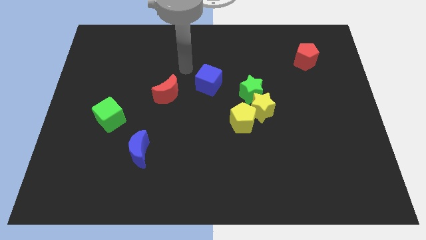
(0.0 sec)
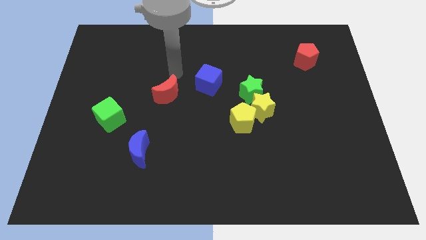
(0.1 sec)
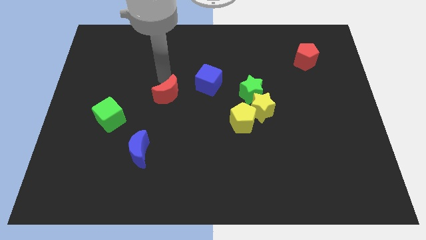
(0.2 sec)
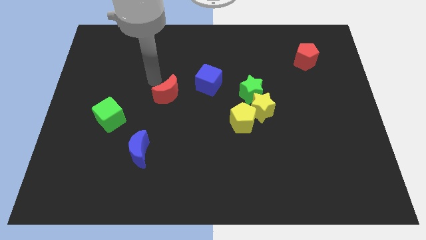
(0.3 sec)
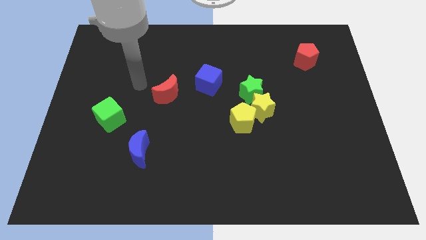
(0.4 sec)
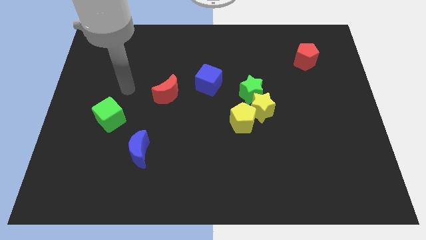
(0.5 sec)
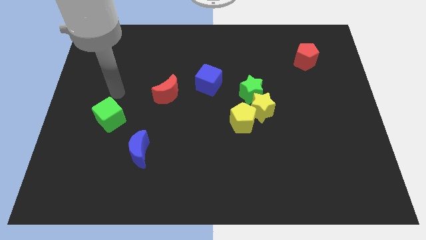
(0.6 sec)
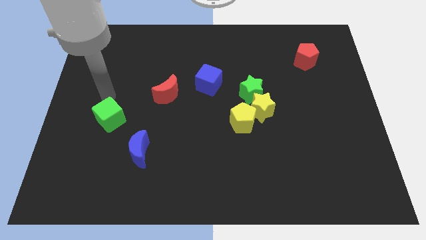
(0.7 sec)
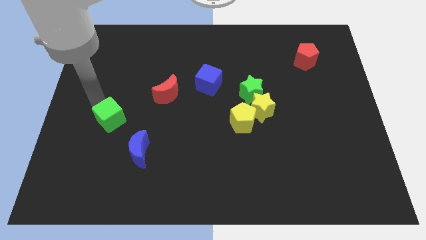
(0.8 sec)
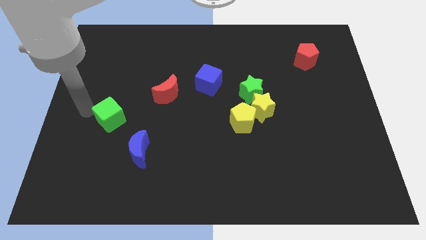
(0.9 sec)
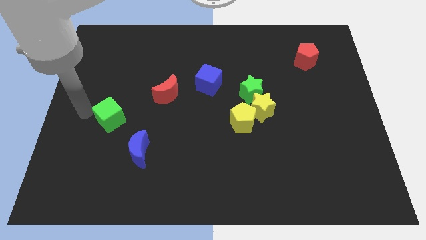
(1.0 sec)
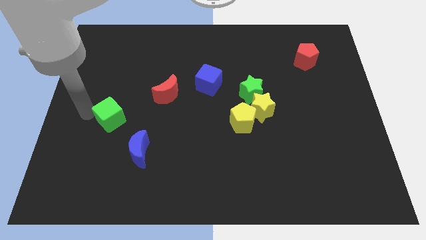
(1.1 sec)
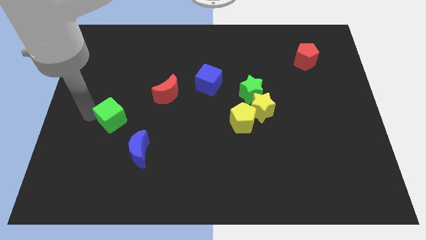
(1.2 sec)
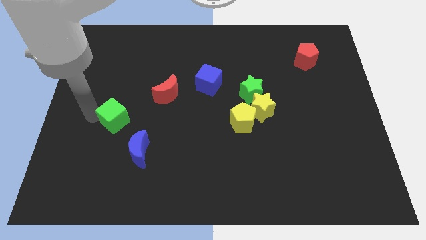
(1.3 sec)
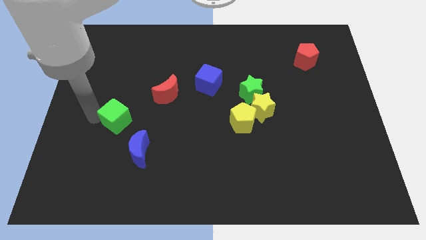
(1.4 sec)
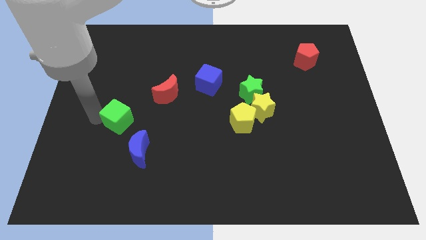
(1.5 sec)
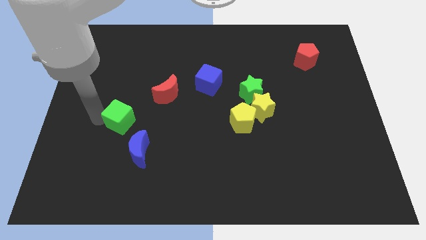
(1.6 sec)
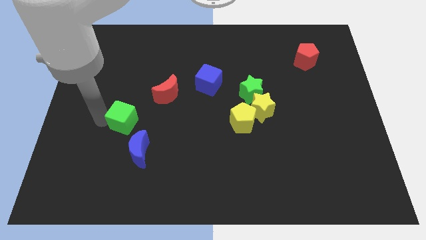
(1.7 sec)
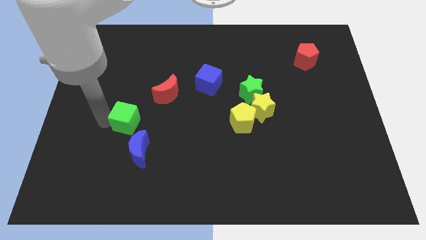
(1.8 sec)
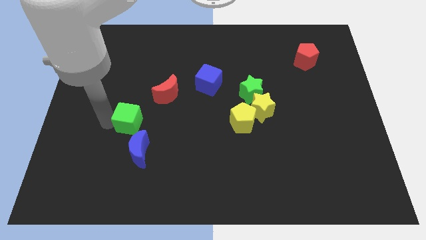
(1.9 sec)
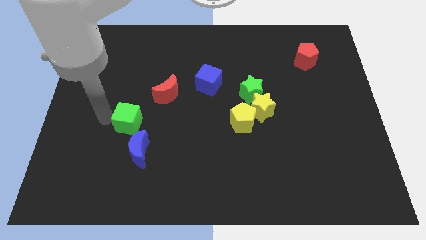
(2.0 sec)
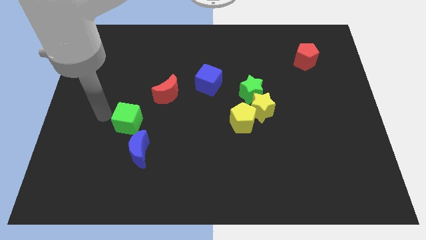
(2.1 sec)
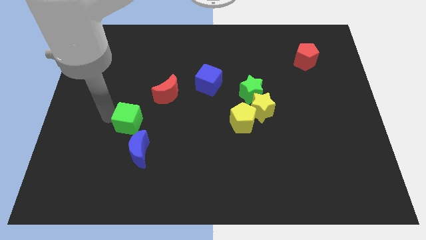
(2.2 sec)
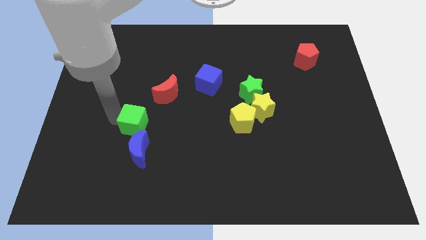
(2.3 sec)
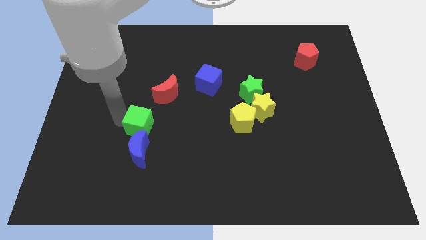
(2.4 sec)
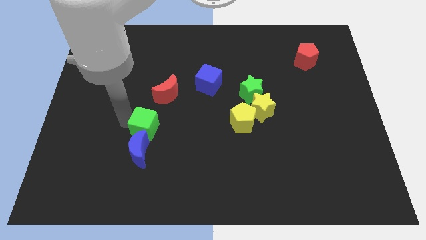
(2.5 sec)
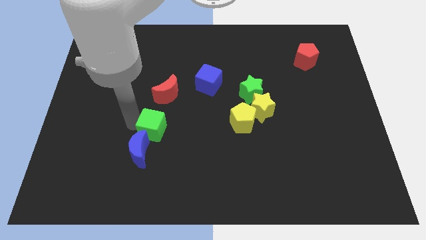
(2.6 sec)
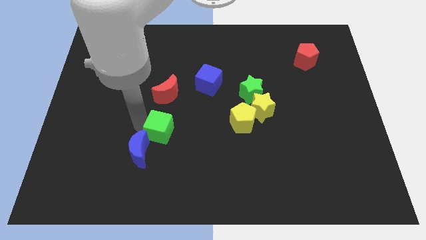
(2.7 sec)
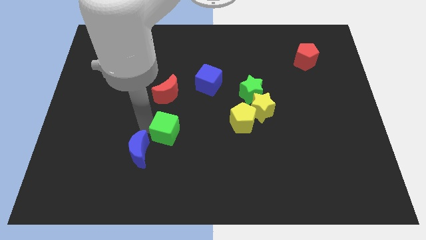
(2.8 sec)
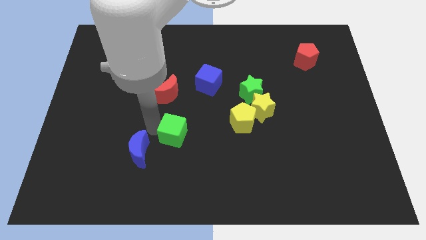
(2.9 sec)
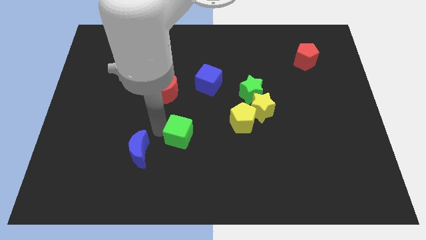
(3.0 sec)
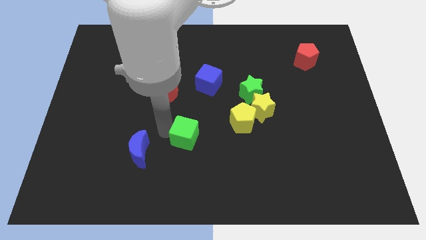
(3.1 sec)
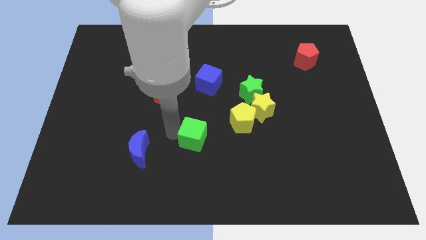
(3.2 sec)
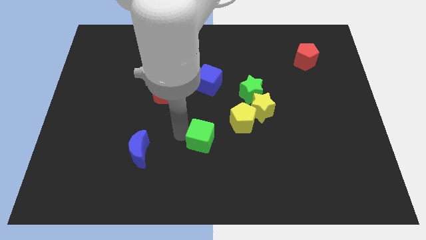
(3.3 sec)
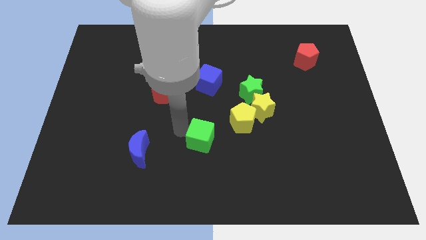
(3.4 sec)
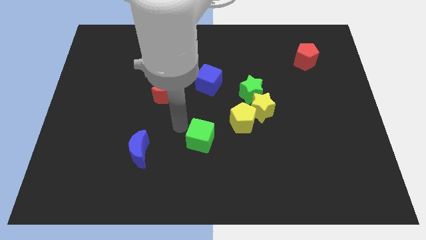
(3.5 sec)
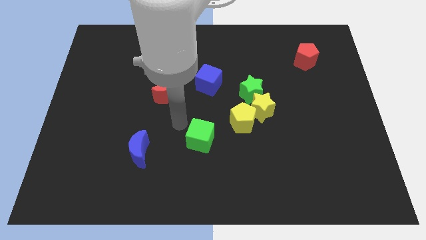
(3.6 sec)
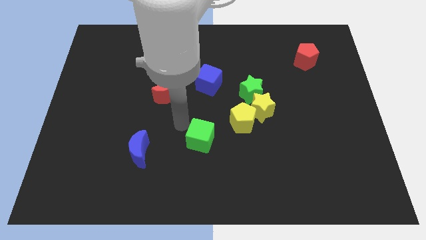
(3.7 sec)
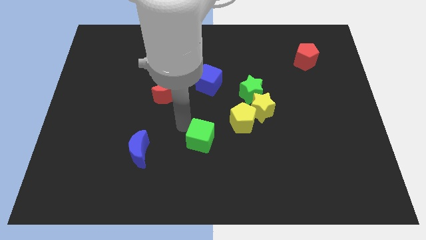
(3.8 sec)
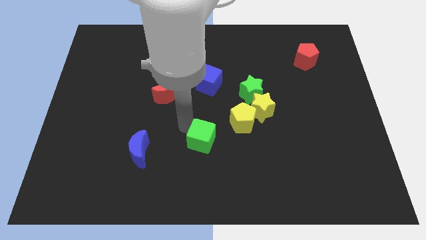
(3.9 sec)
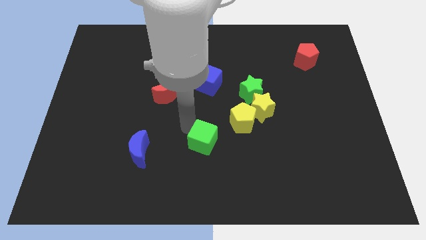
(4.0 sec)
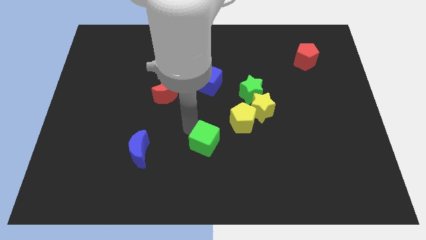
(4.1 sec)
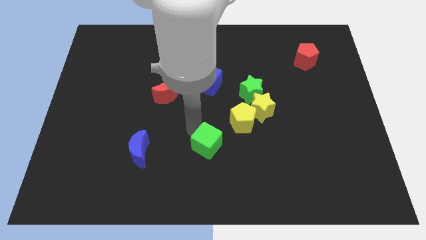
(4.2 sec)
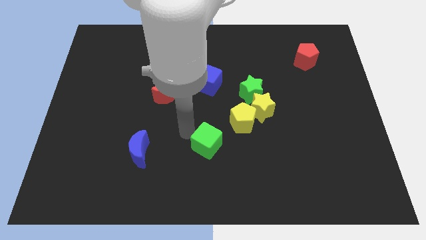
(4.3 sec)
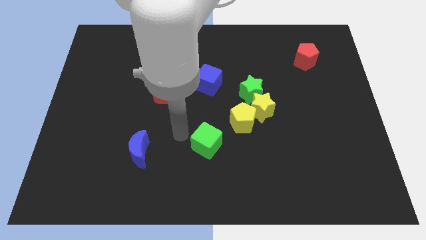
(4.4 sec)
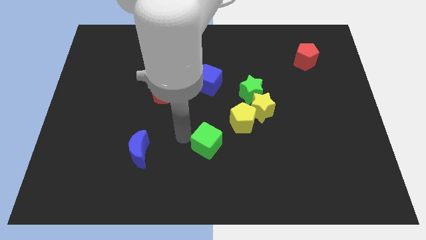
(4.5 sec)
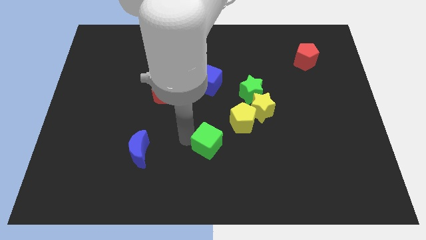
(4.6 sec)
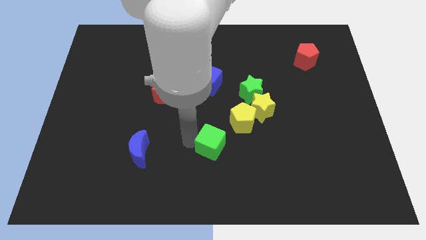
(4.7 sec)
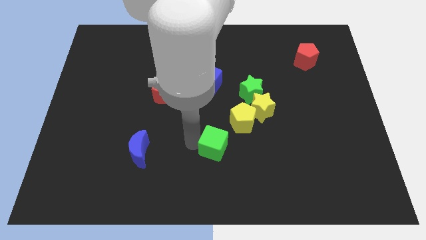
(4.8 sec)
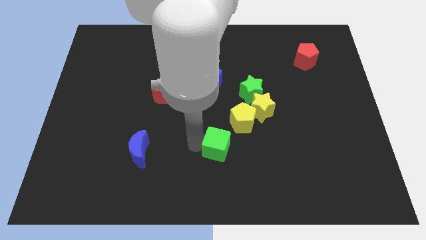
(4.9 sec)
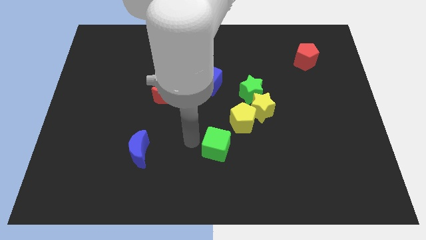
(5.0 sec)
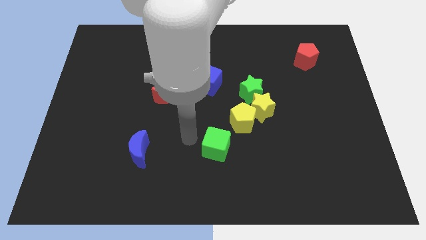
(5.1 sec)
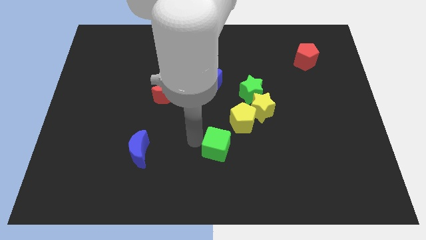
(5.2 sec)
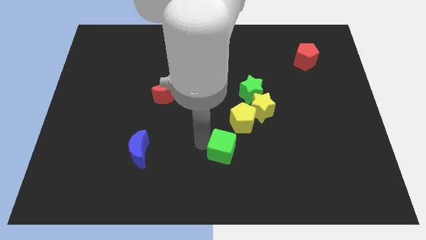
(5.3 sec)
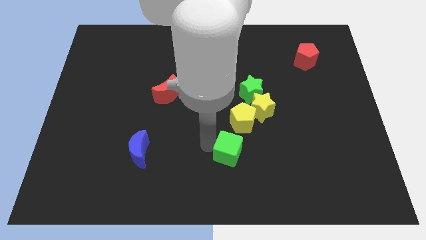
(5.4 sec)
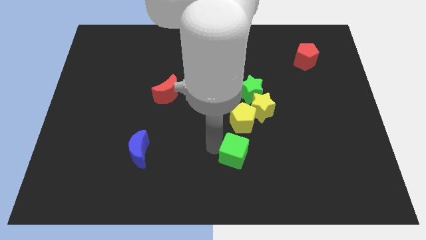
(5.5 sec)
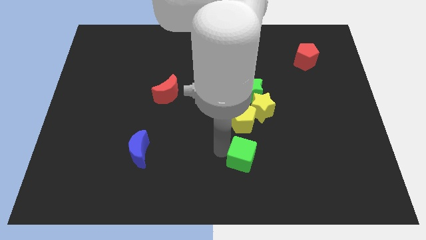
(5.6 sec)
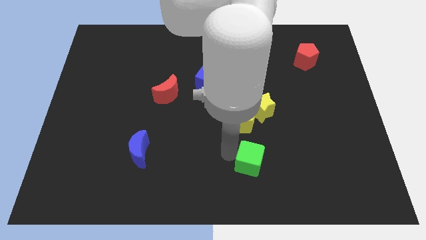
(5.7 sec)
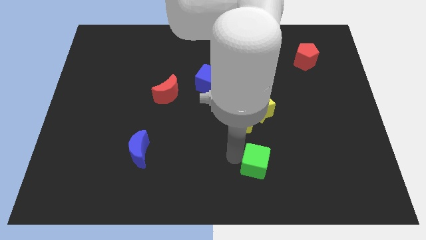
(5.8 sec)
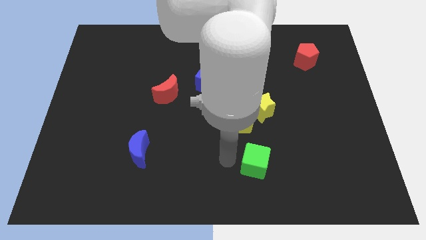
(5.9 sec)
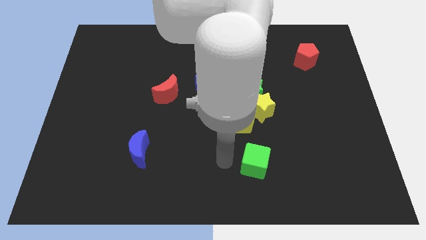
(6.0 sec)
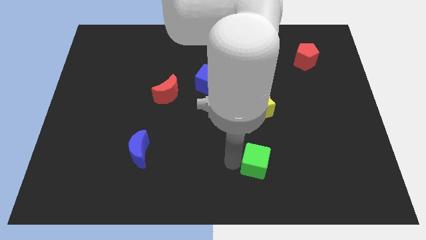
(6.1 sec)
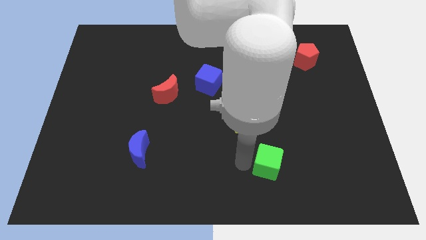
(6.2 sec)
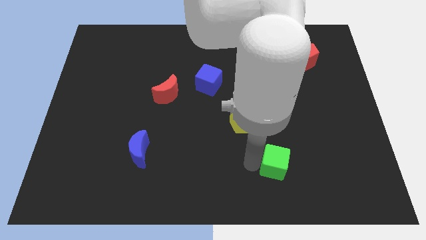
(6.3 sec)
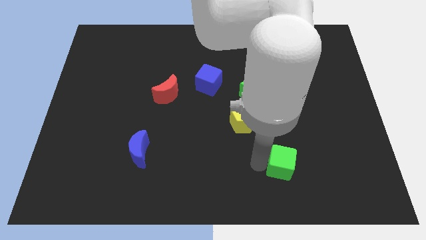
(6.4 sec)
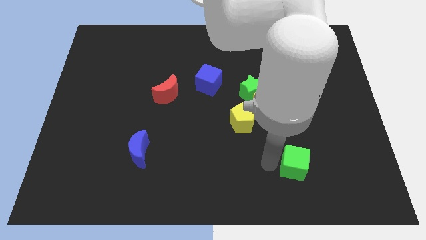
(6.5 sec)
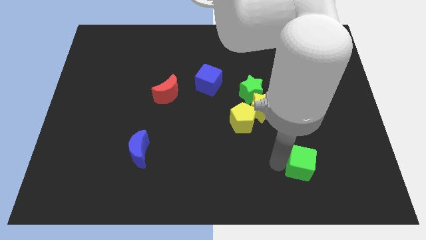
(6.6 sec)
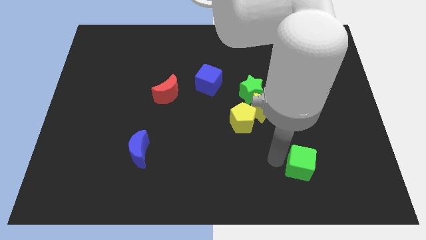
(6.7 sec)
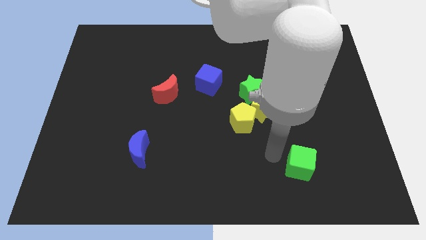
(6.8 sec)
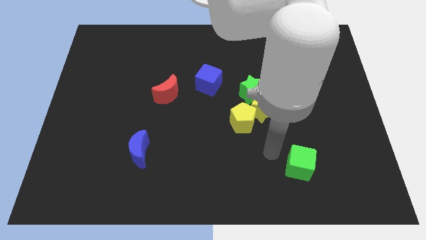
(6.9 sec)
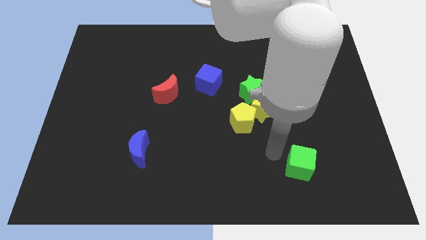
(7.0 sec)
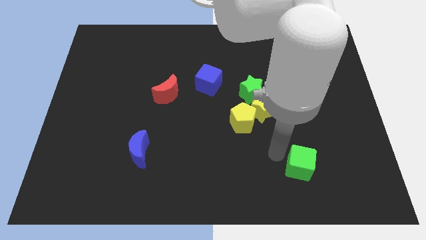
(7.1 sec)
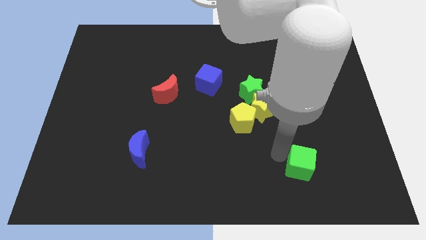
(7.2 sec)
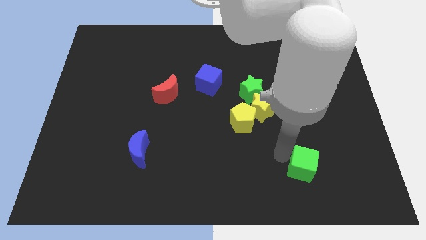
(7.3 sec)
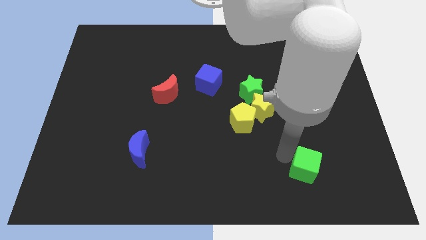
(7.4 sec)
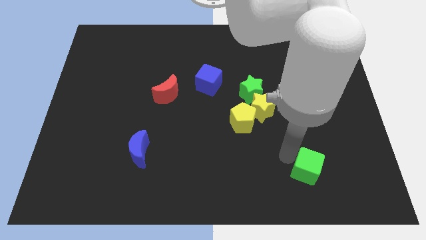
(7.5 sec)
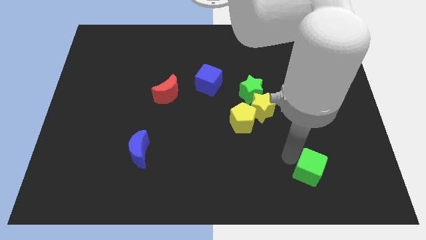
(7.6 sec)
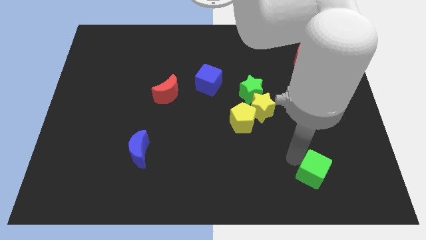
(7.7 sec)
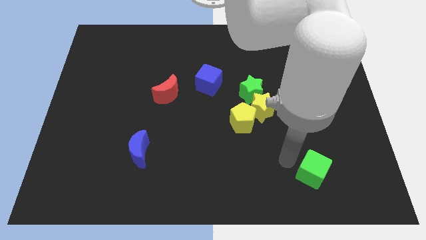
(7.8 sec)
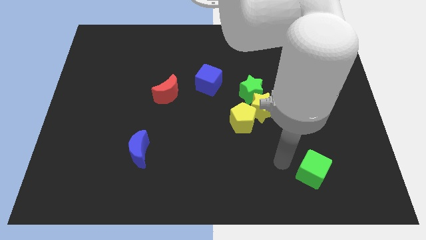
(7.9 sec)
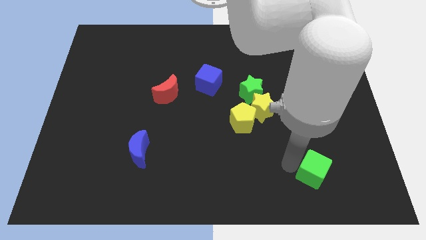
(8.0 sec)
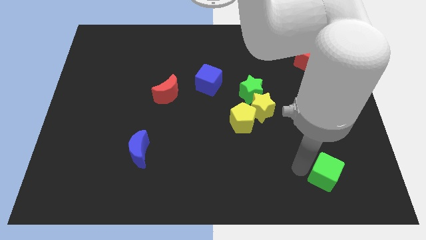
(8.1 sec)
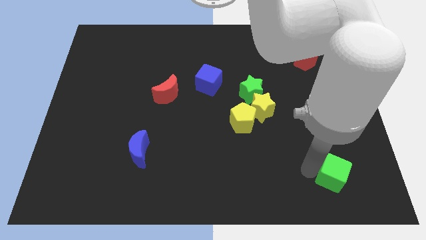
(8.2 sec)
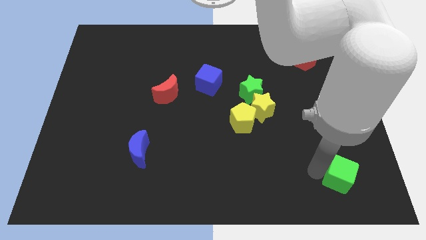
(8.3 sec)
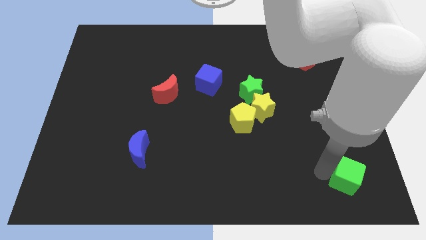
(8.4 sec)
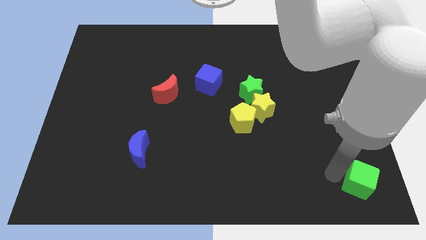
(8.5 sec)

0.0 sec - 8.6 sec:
push the green cube to the bottom right of the board
